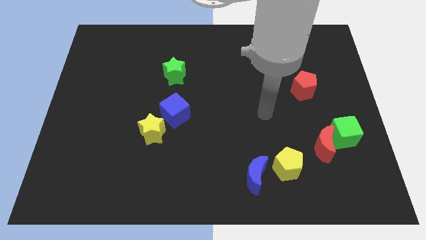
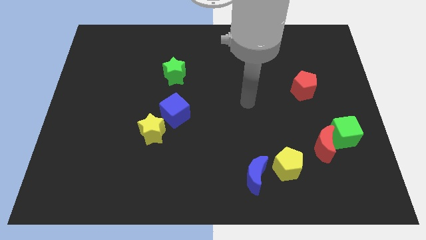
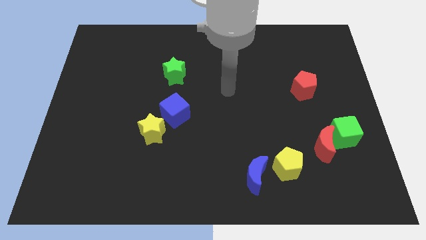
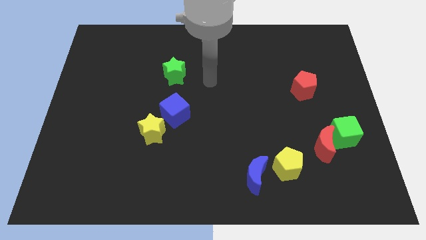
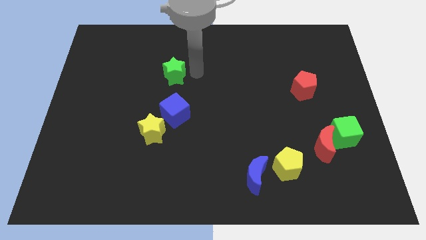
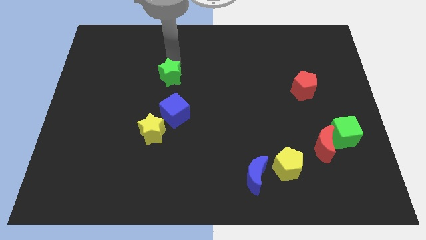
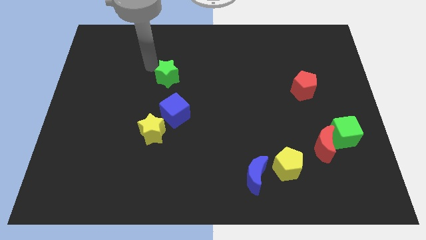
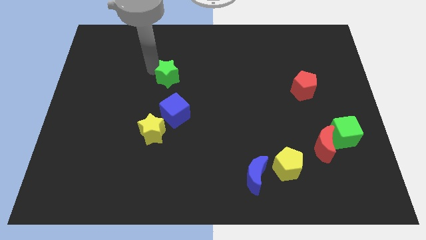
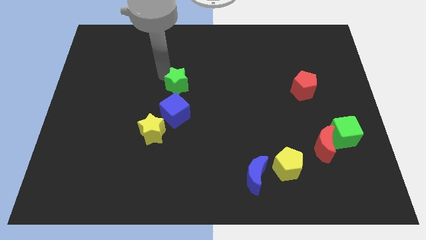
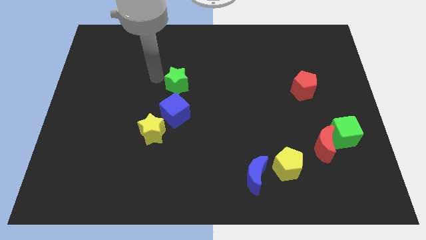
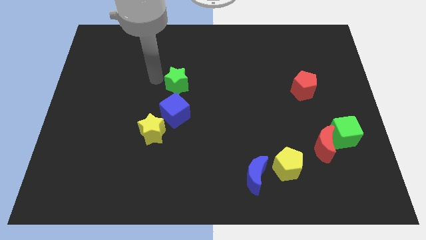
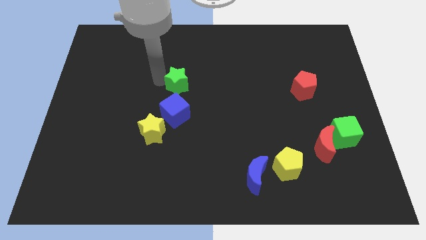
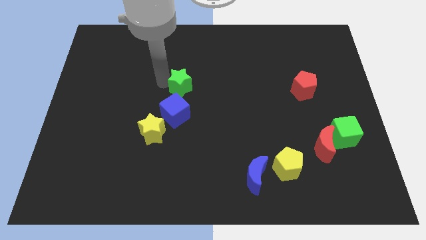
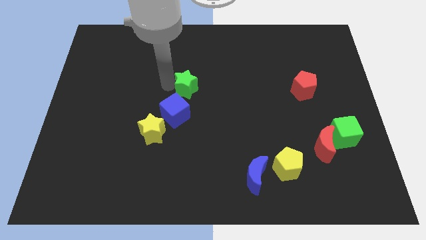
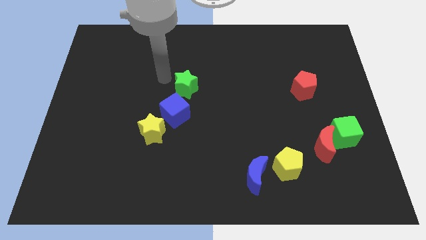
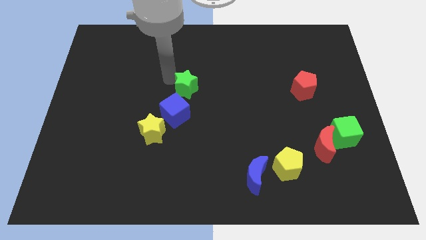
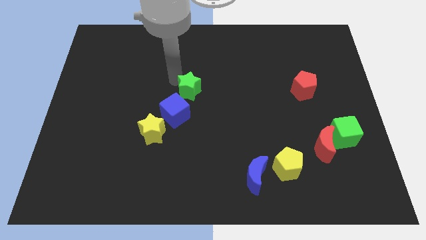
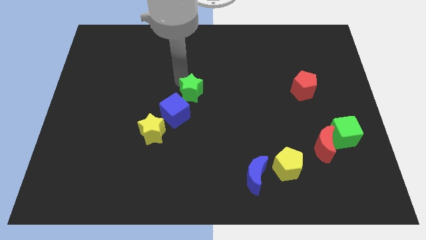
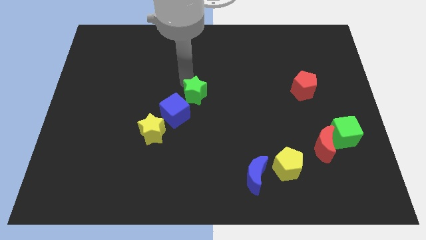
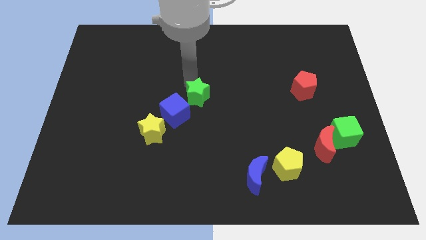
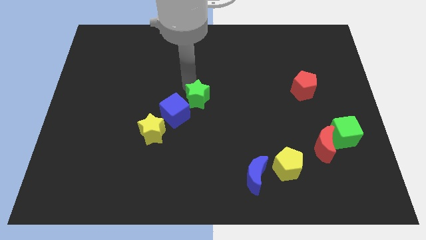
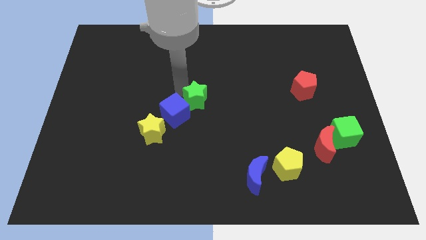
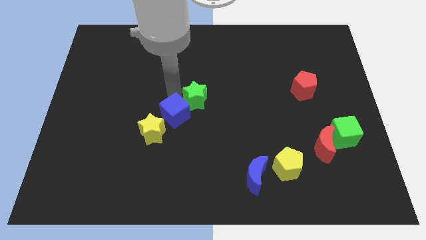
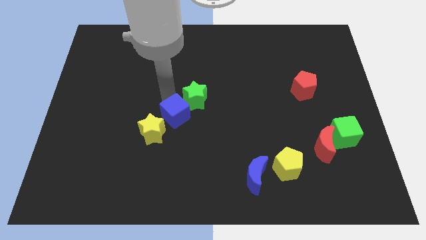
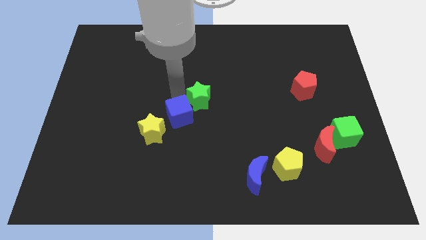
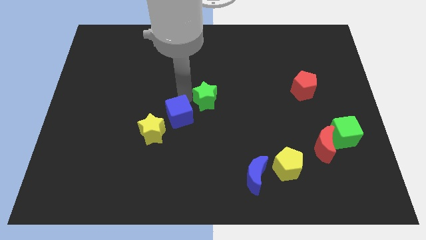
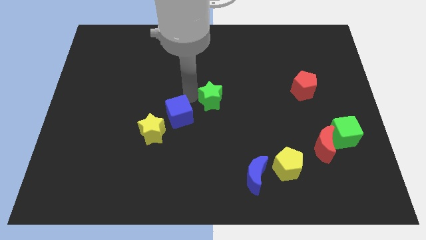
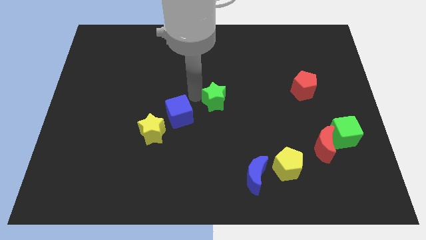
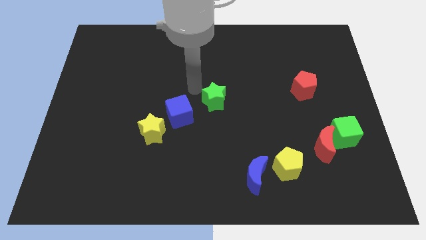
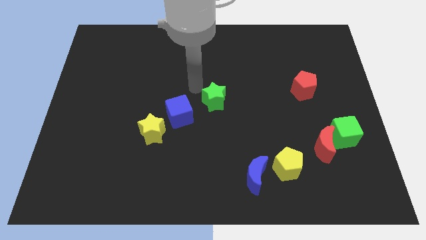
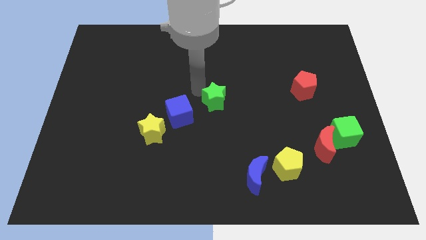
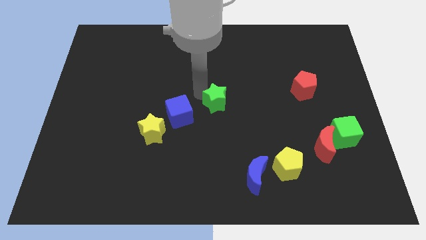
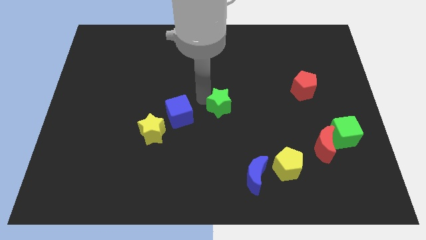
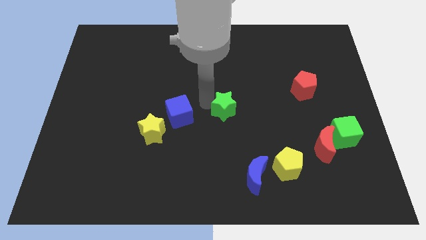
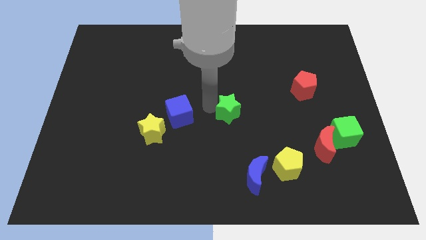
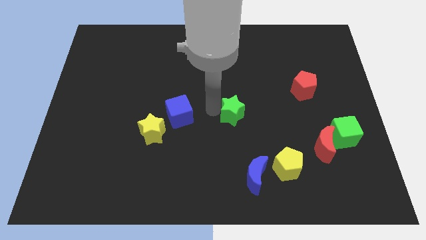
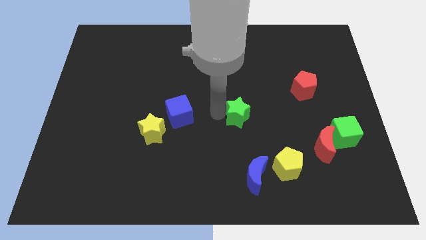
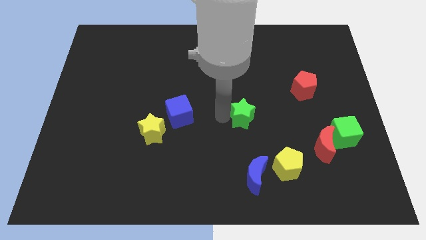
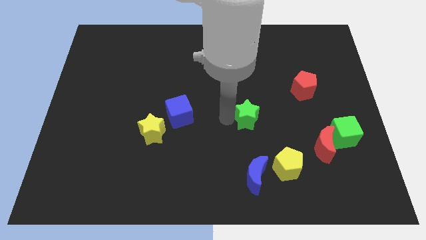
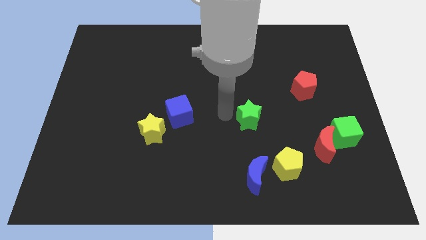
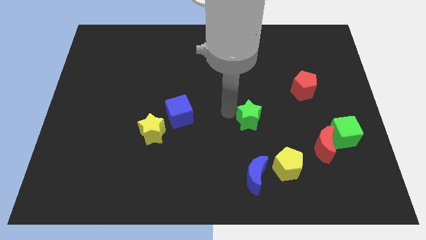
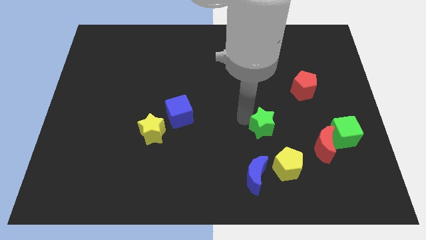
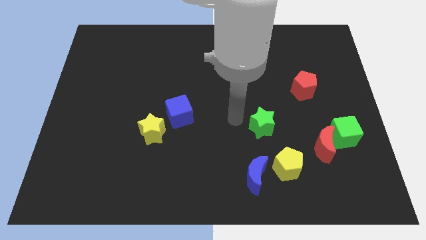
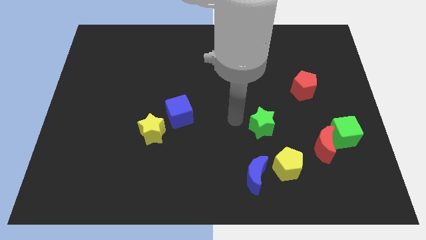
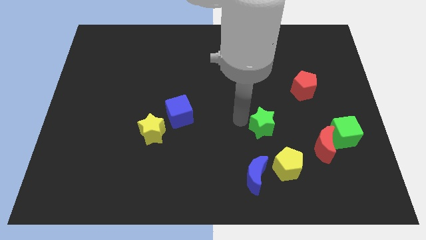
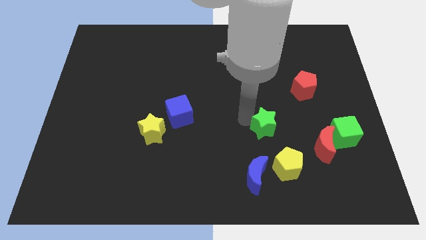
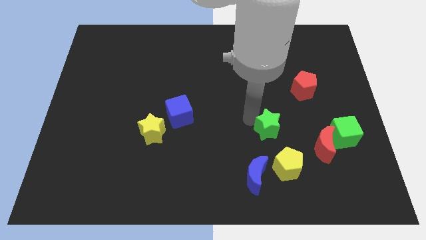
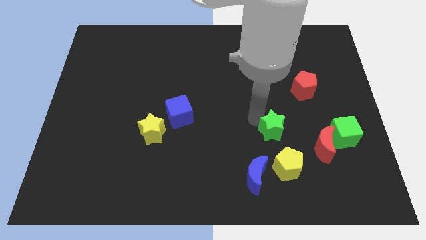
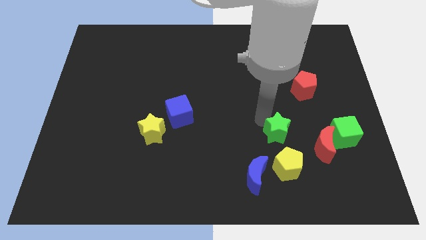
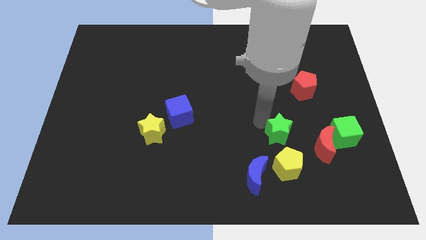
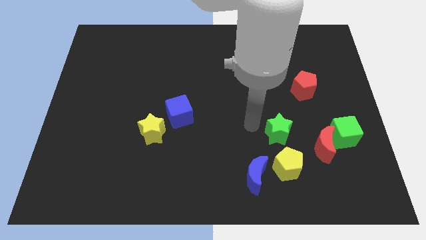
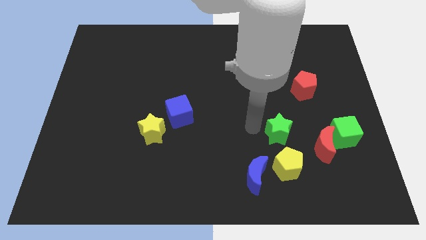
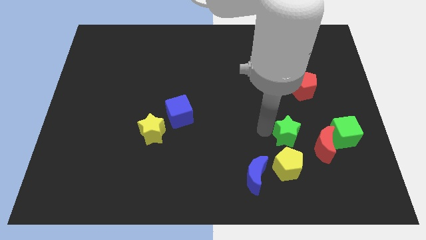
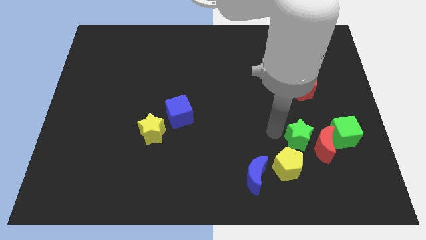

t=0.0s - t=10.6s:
push the green star close to the red moon

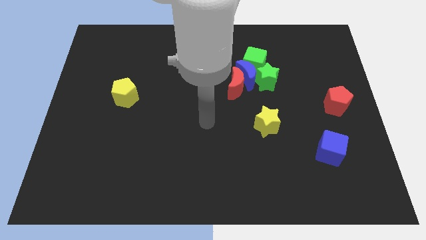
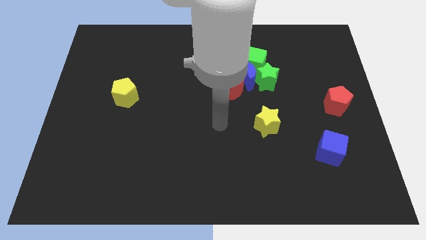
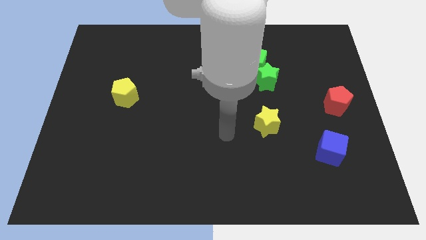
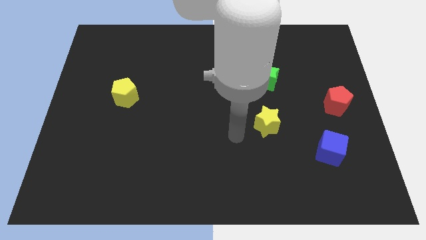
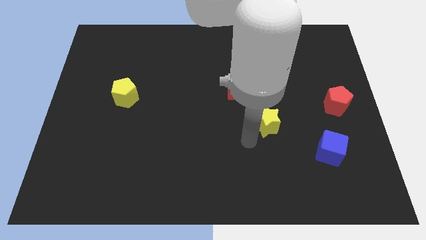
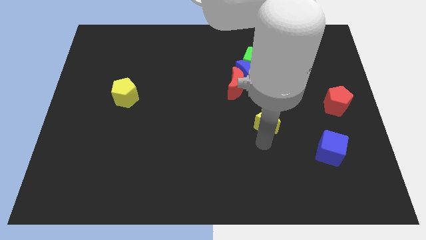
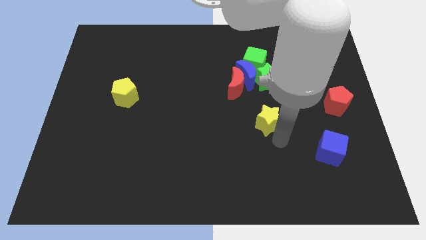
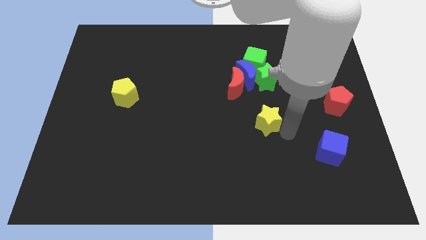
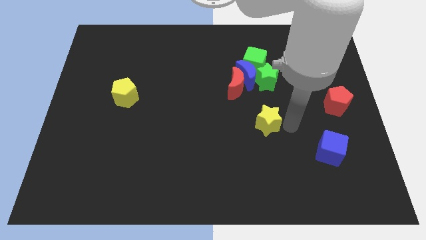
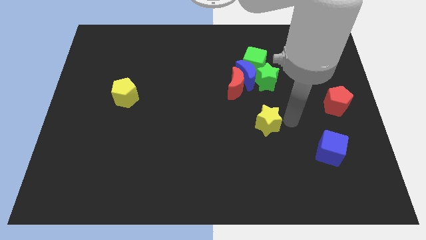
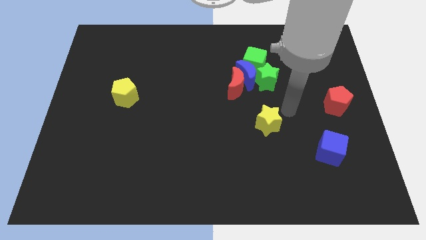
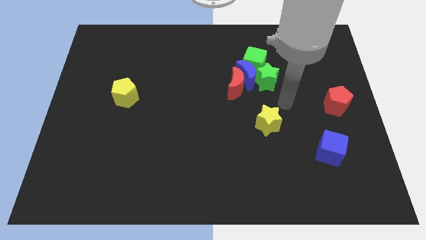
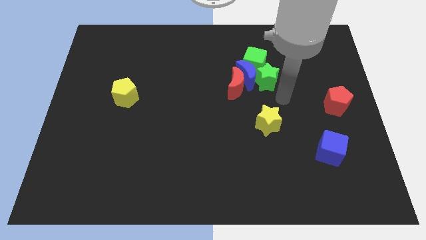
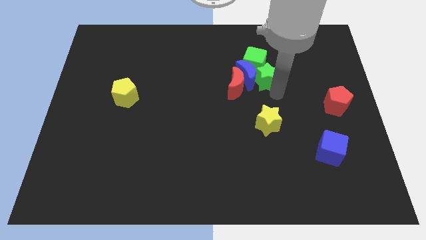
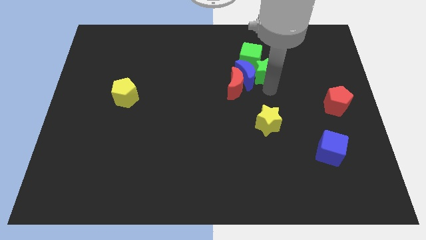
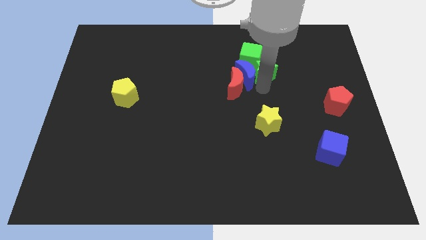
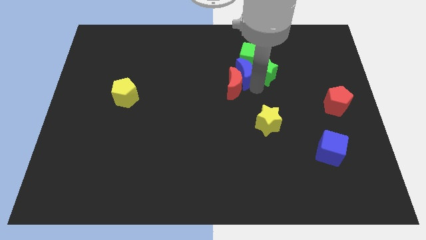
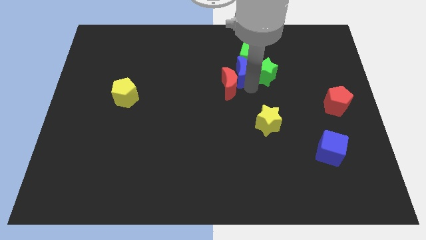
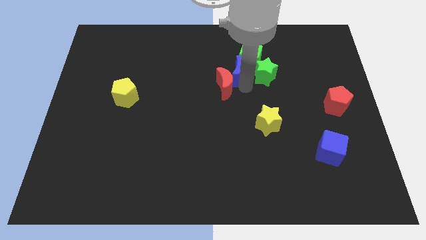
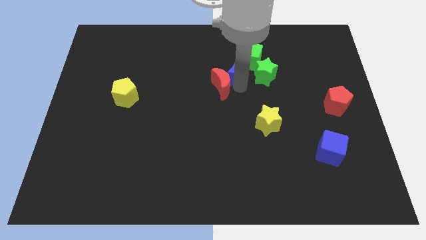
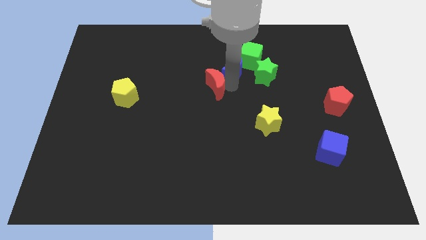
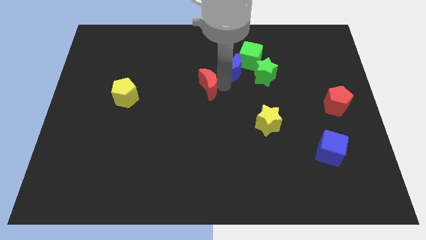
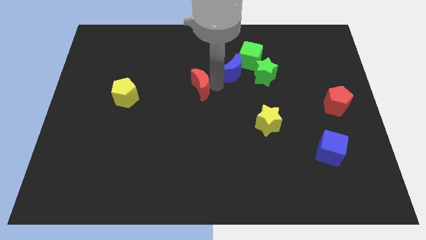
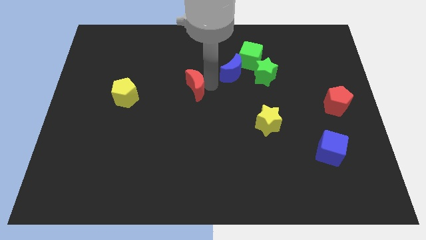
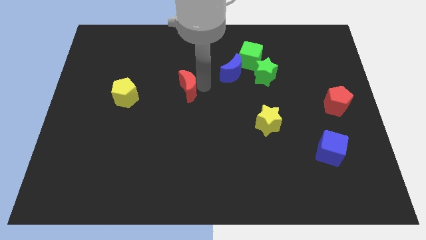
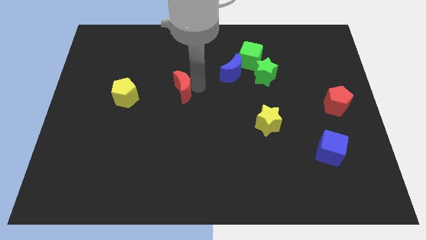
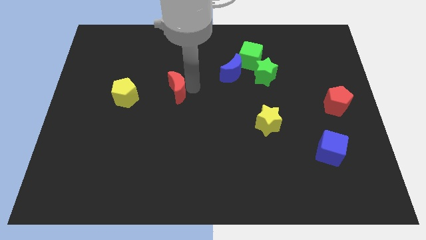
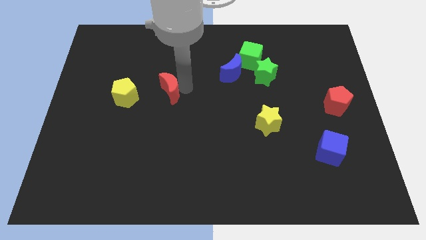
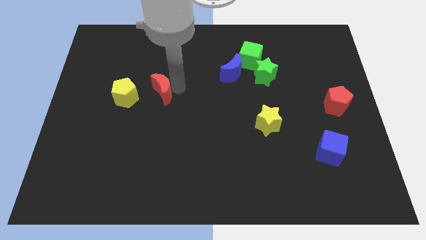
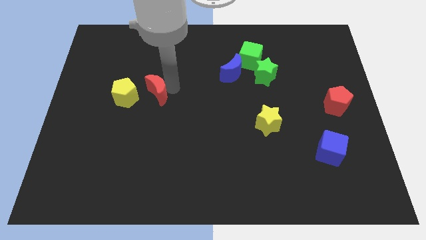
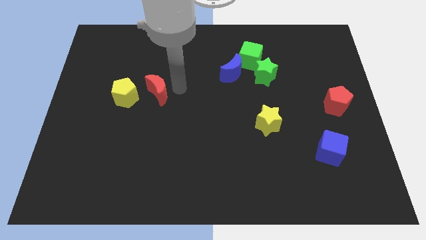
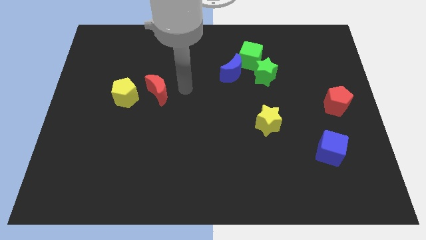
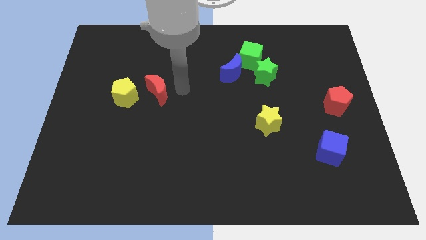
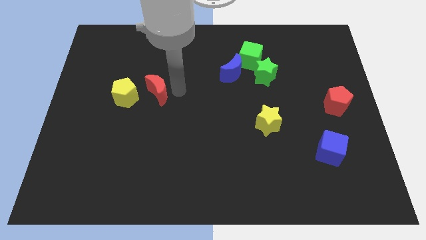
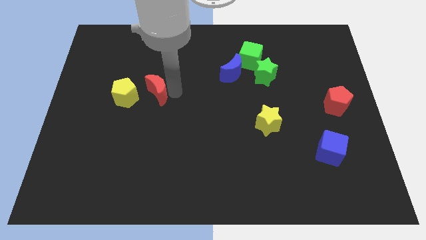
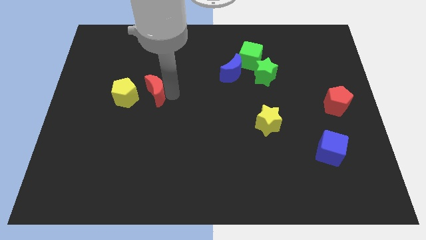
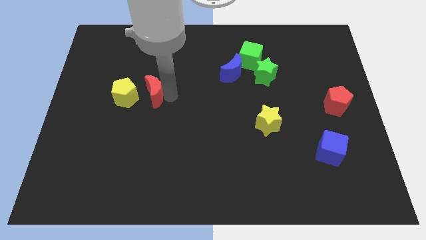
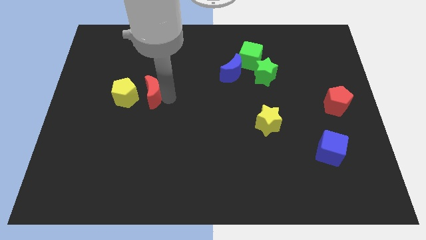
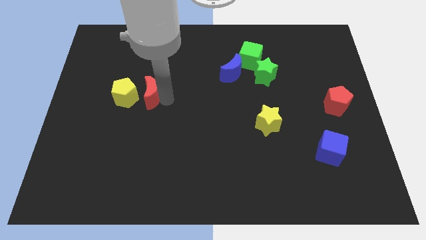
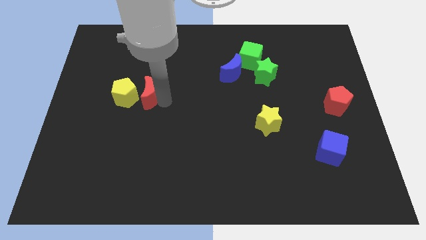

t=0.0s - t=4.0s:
slide the red moon towards the yellow pentagon
